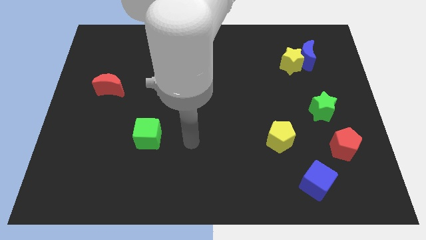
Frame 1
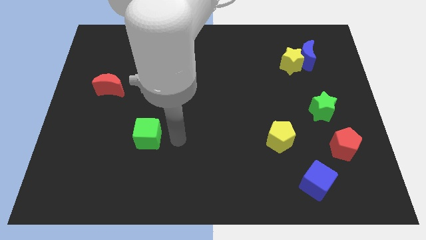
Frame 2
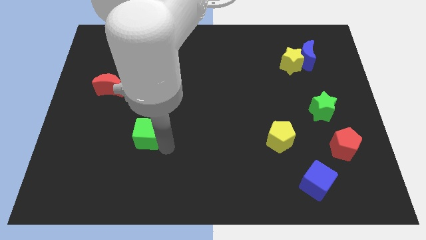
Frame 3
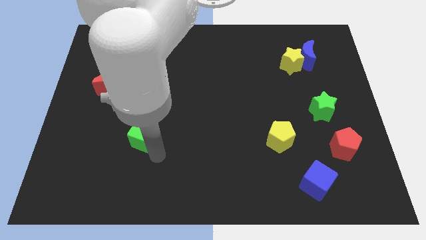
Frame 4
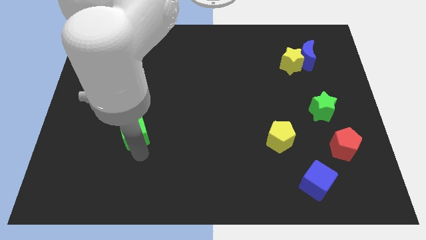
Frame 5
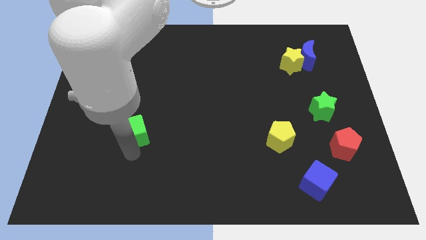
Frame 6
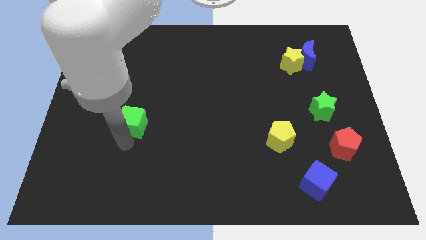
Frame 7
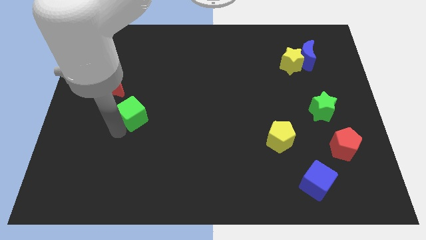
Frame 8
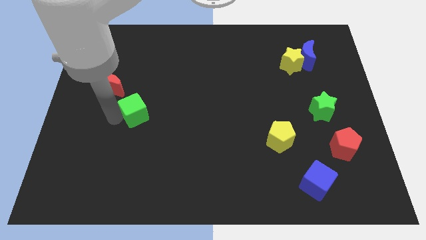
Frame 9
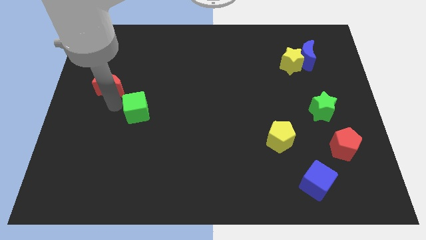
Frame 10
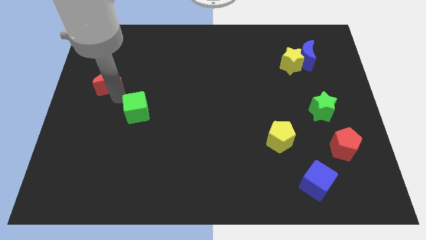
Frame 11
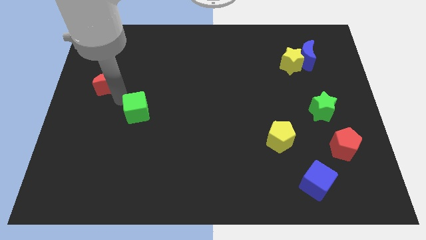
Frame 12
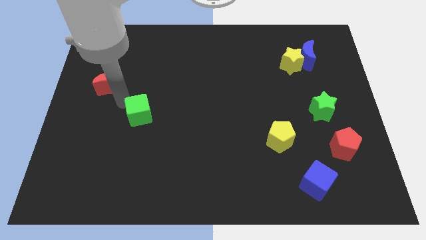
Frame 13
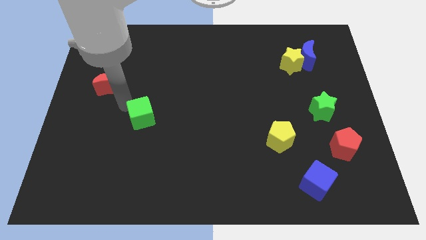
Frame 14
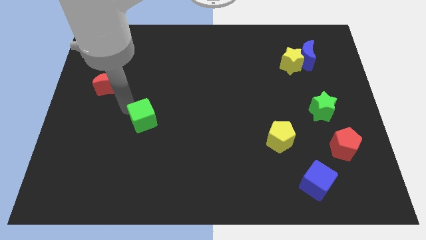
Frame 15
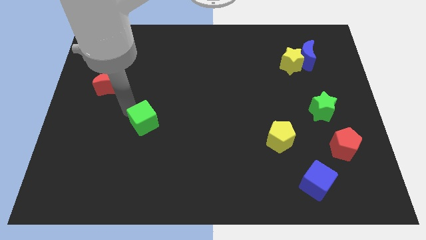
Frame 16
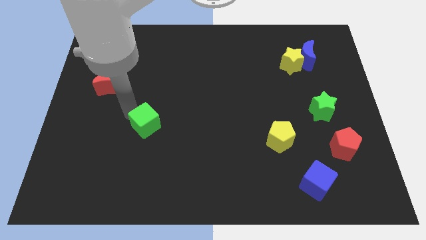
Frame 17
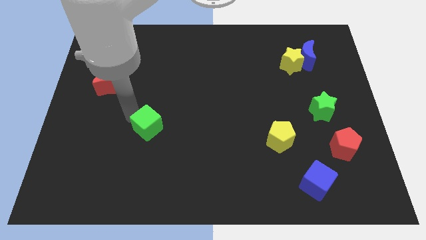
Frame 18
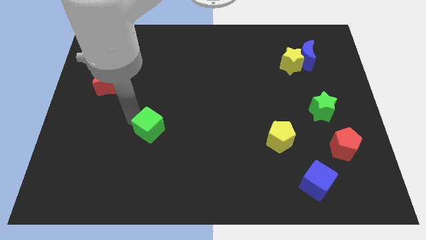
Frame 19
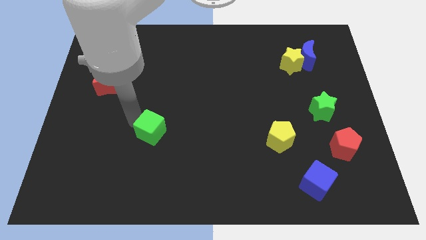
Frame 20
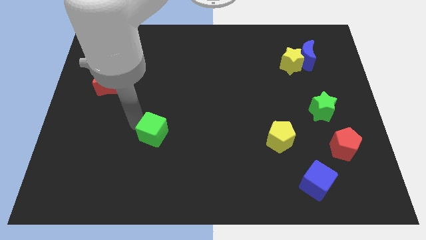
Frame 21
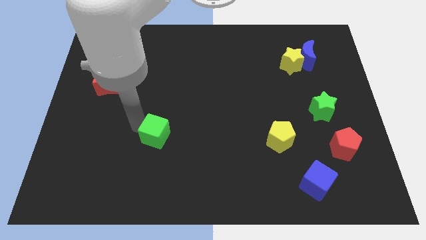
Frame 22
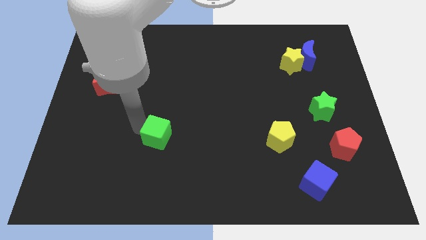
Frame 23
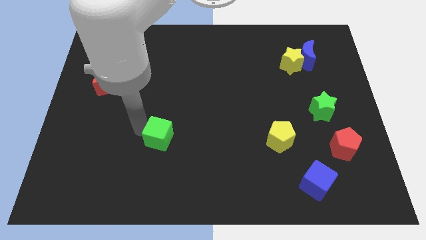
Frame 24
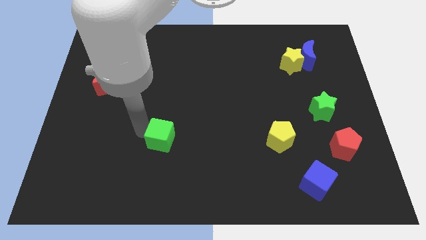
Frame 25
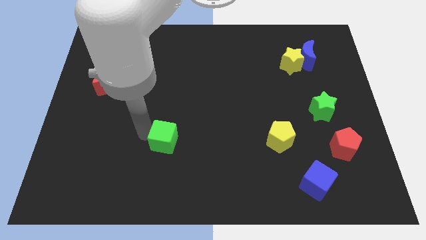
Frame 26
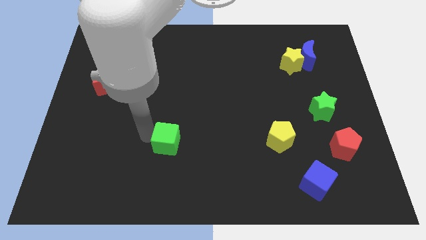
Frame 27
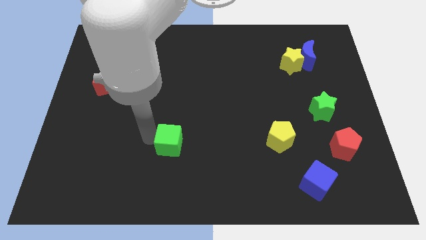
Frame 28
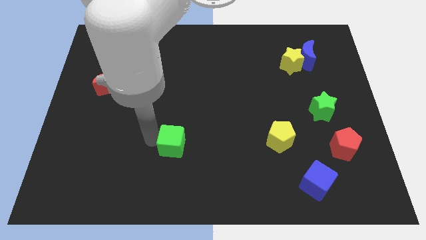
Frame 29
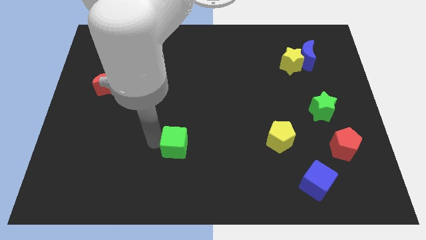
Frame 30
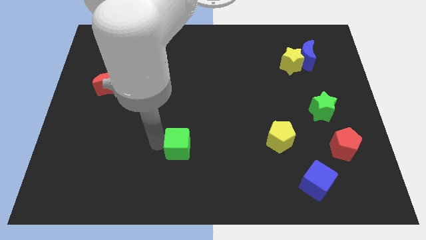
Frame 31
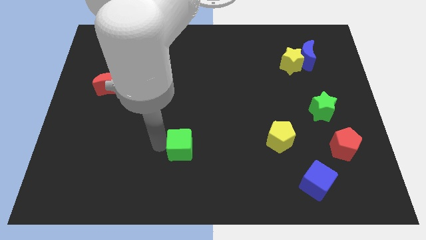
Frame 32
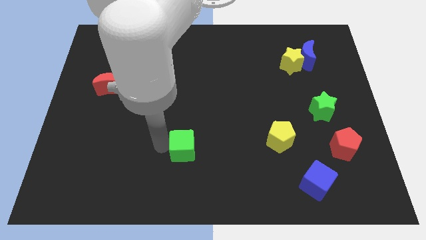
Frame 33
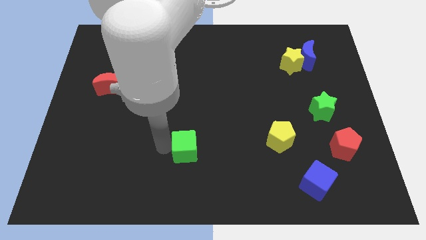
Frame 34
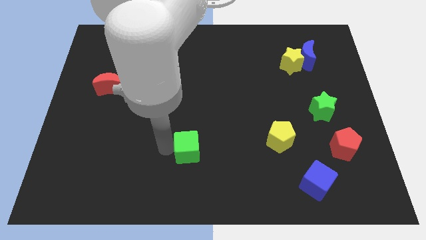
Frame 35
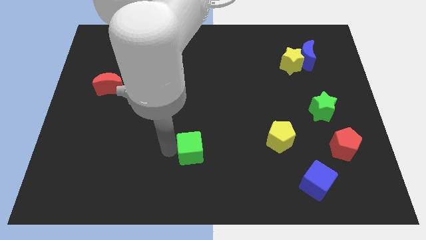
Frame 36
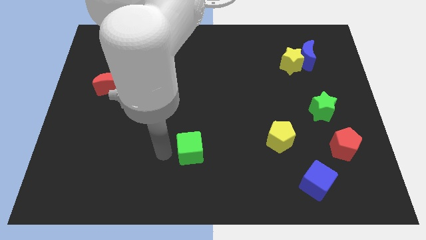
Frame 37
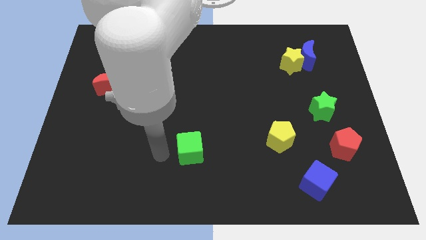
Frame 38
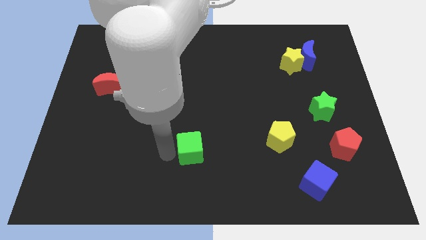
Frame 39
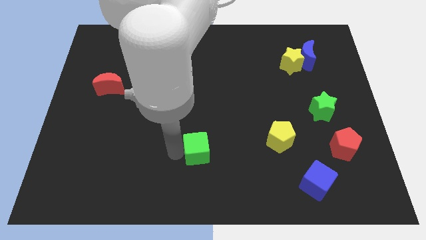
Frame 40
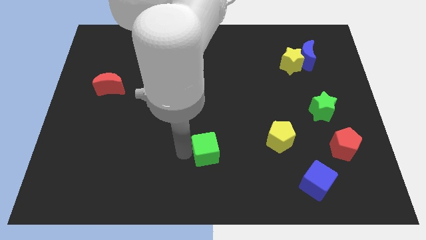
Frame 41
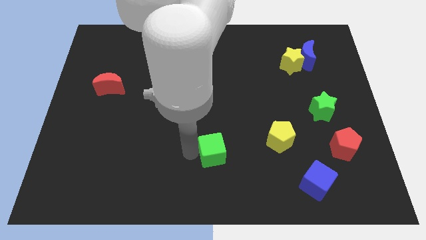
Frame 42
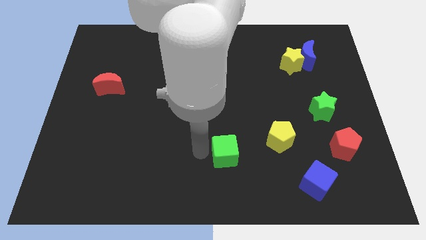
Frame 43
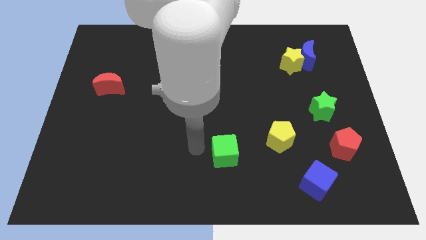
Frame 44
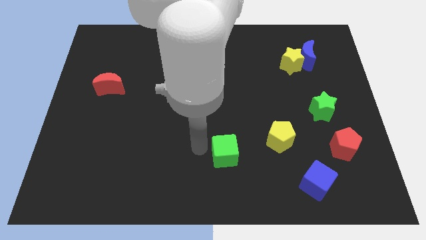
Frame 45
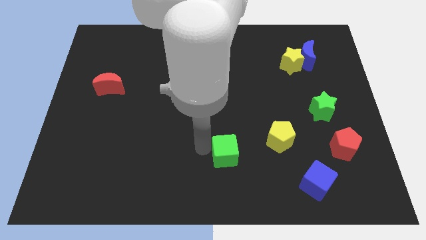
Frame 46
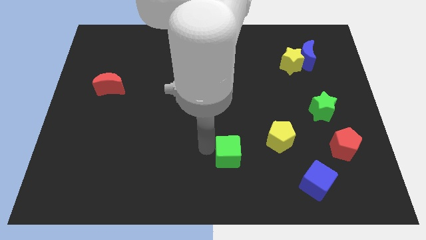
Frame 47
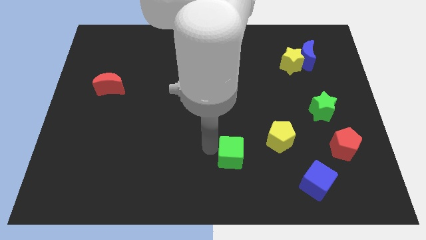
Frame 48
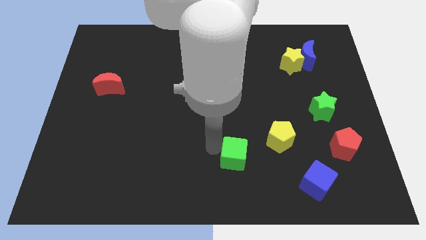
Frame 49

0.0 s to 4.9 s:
move the green cube to the bottom left of the yellow pentagon

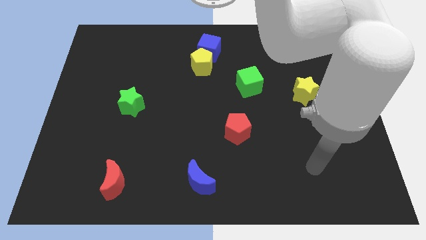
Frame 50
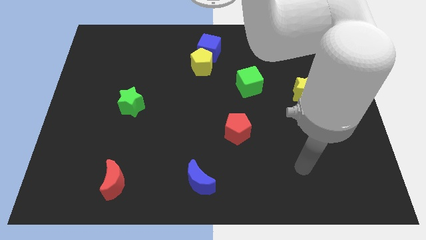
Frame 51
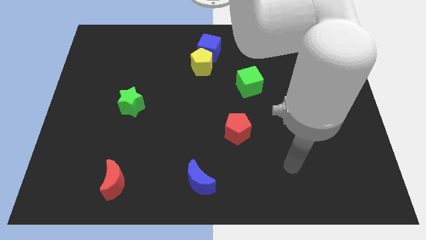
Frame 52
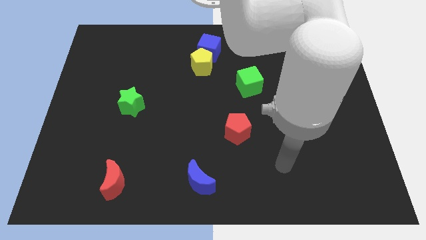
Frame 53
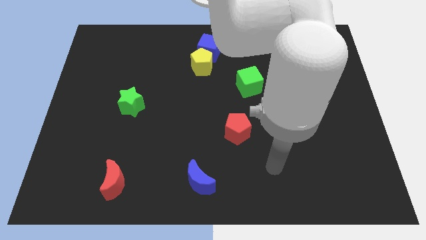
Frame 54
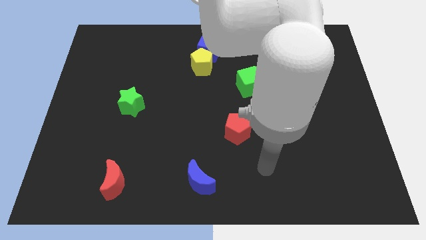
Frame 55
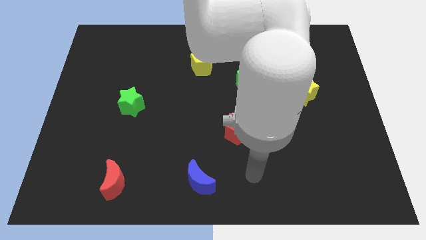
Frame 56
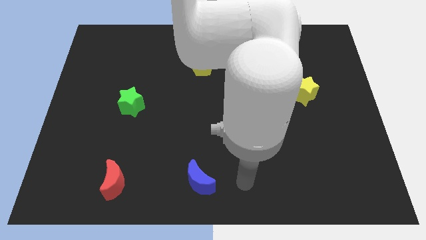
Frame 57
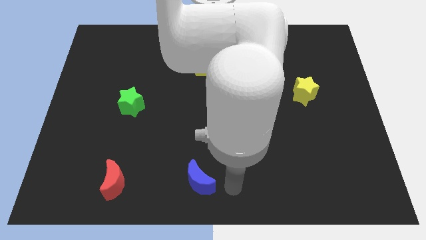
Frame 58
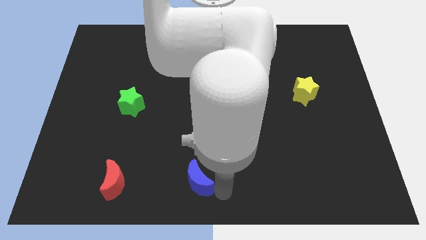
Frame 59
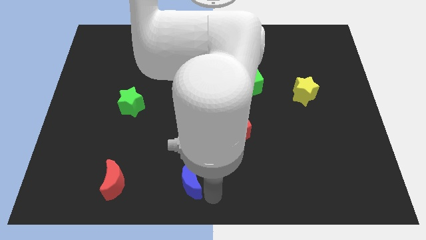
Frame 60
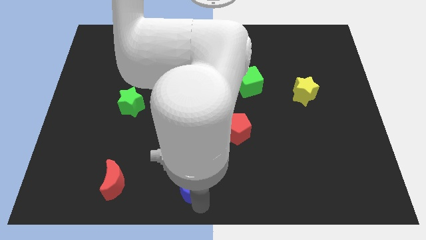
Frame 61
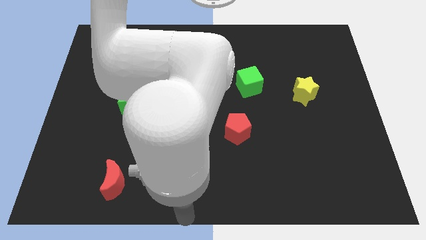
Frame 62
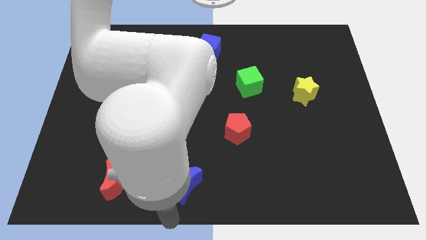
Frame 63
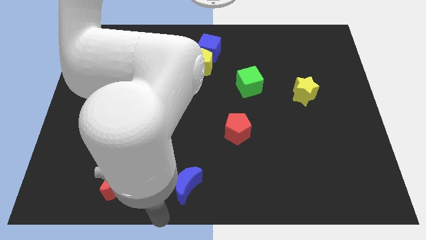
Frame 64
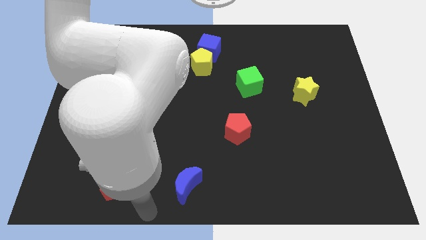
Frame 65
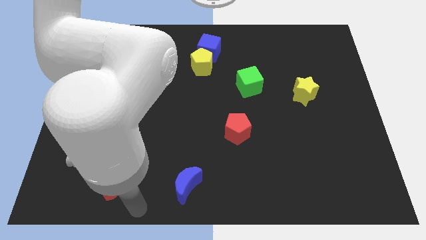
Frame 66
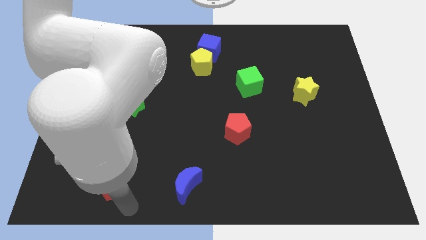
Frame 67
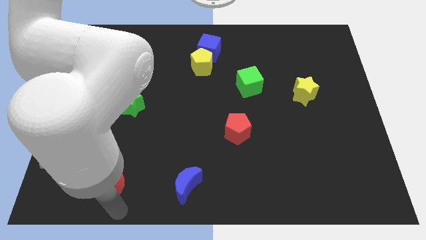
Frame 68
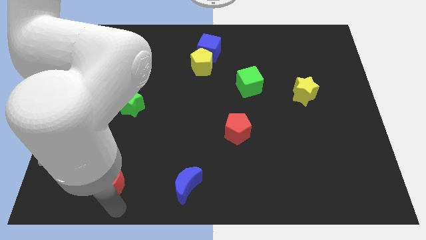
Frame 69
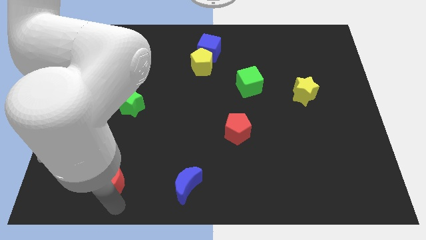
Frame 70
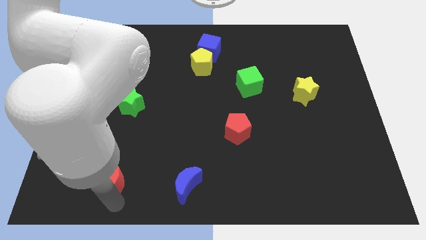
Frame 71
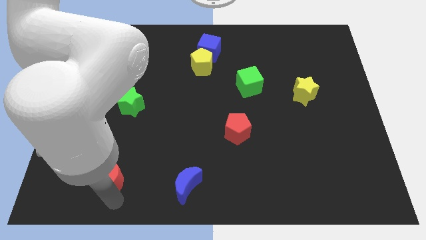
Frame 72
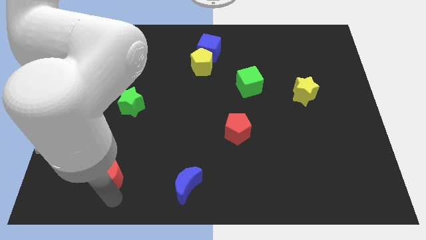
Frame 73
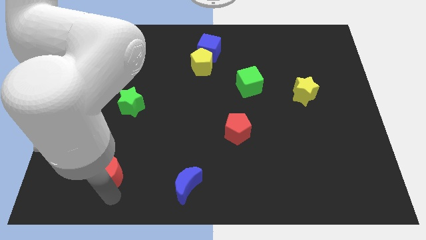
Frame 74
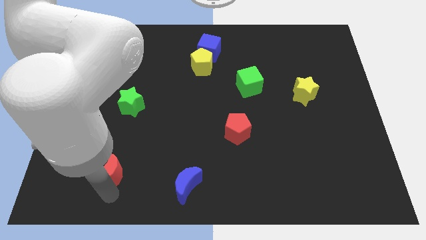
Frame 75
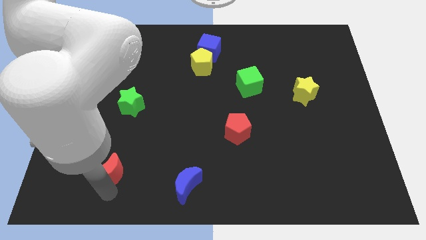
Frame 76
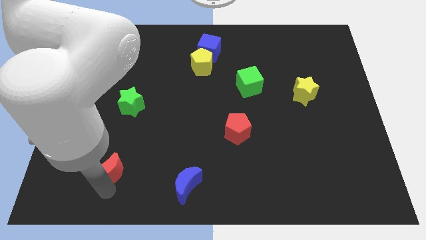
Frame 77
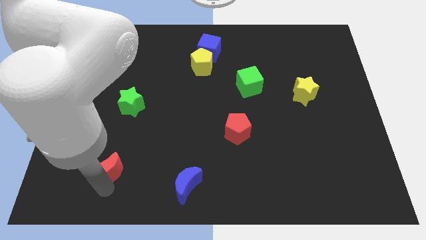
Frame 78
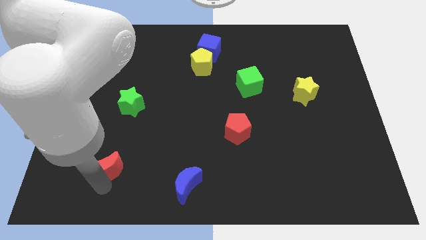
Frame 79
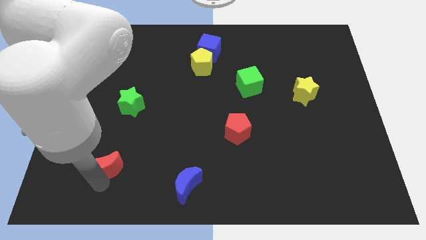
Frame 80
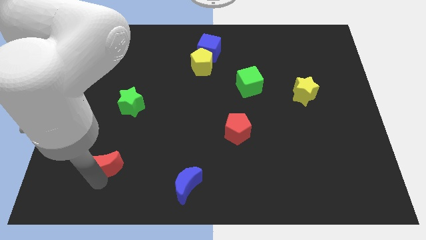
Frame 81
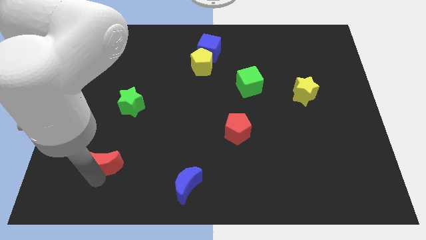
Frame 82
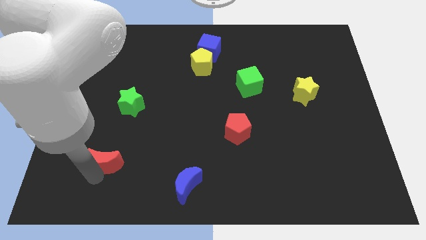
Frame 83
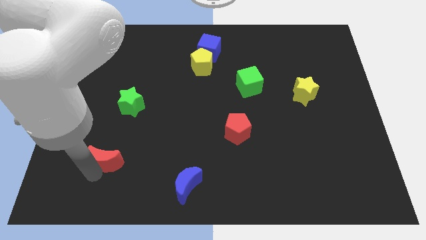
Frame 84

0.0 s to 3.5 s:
slide the red moon below the green star
